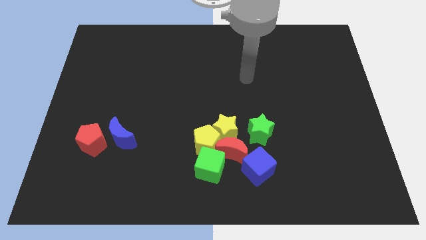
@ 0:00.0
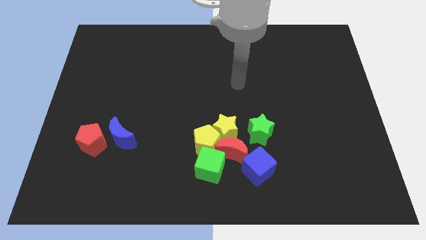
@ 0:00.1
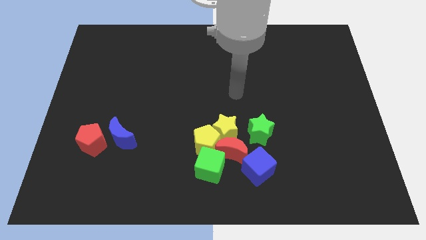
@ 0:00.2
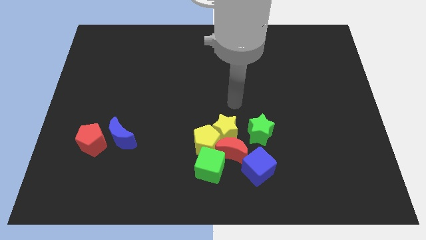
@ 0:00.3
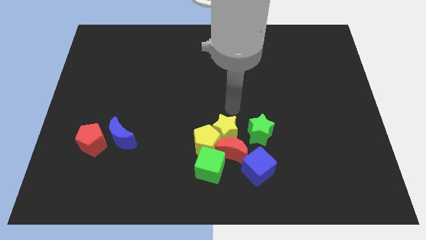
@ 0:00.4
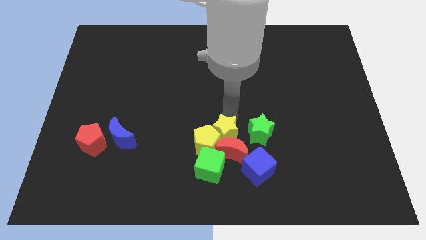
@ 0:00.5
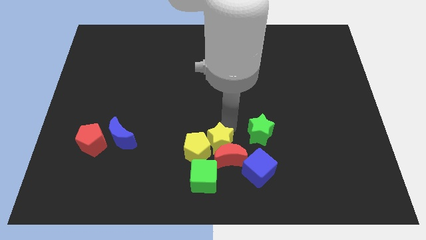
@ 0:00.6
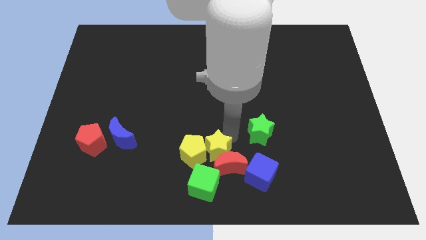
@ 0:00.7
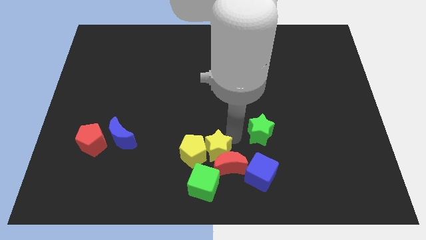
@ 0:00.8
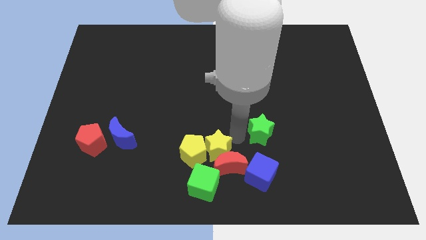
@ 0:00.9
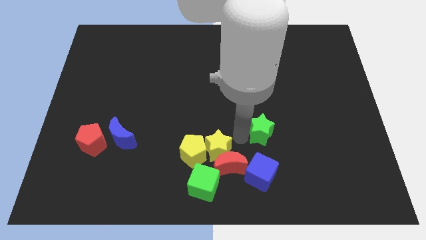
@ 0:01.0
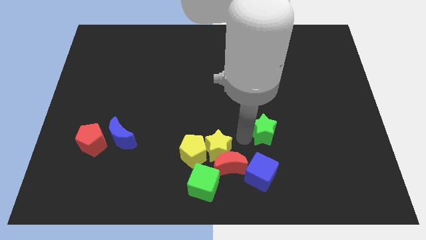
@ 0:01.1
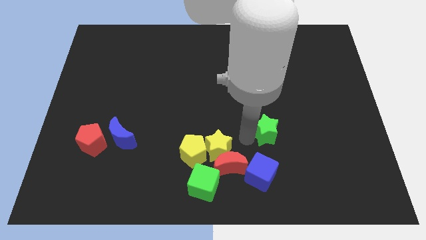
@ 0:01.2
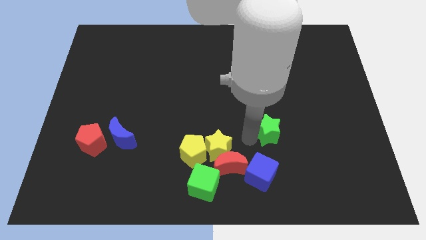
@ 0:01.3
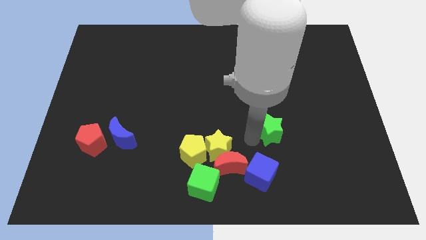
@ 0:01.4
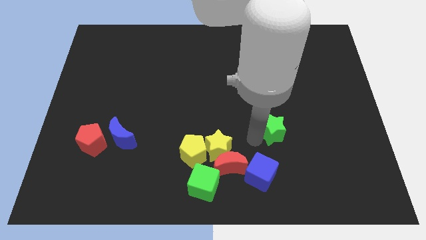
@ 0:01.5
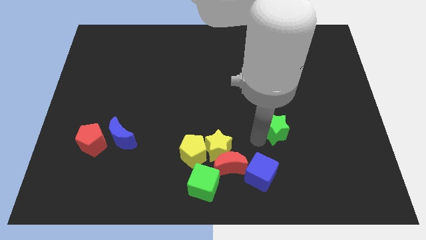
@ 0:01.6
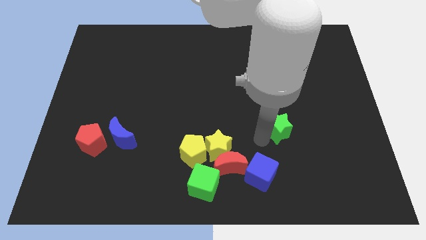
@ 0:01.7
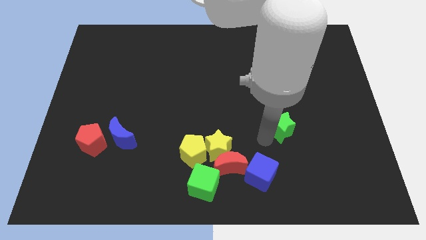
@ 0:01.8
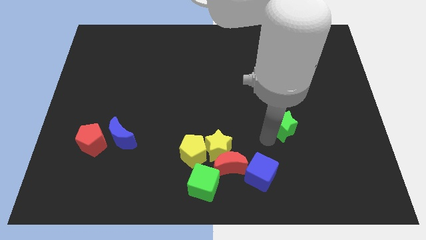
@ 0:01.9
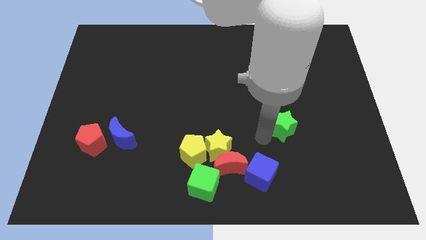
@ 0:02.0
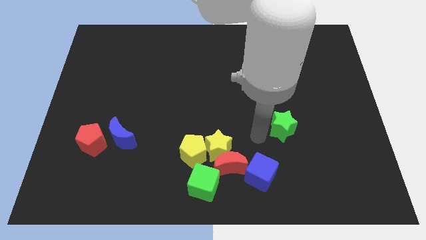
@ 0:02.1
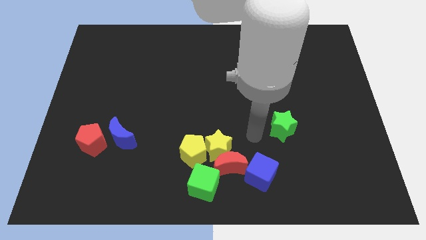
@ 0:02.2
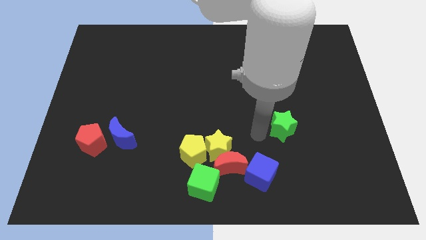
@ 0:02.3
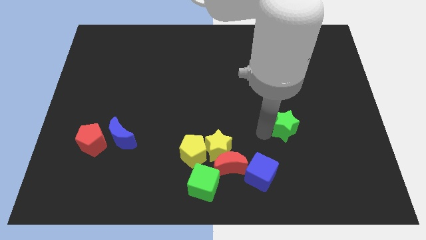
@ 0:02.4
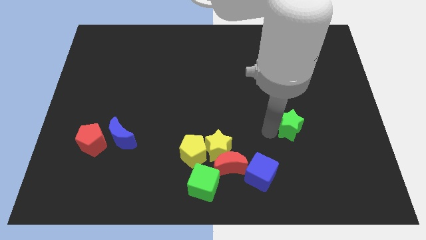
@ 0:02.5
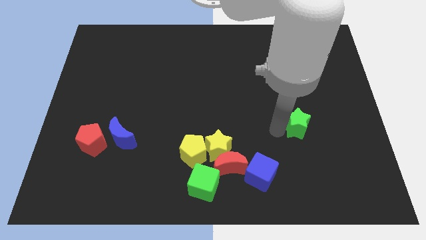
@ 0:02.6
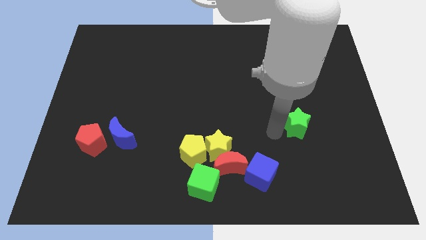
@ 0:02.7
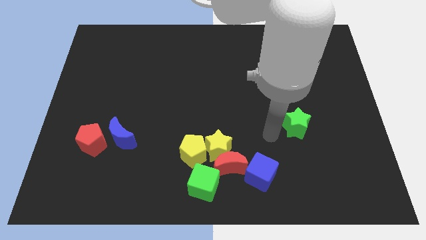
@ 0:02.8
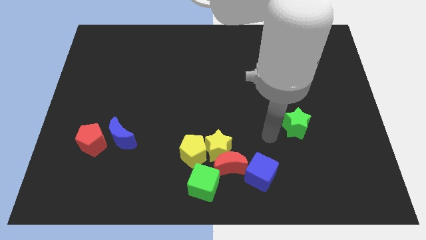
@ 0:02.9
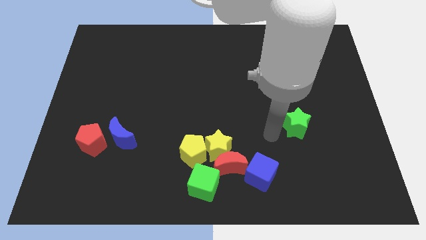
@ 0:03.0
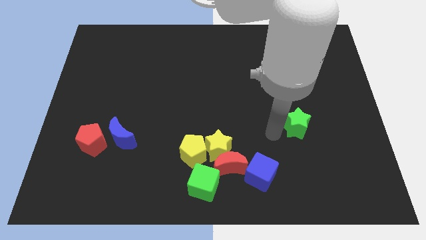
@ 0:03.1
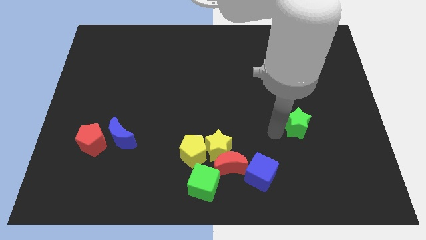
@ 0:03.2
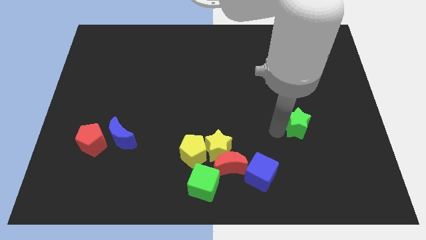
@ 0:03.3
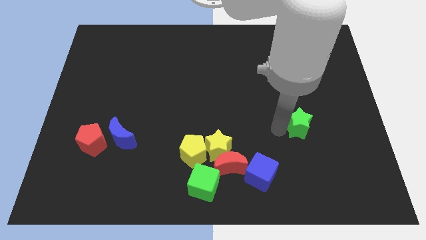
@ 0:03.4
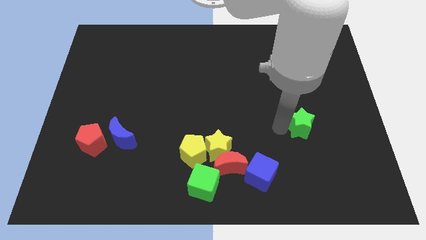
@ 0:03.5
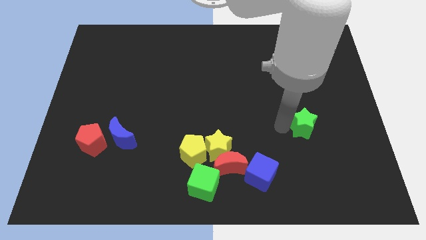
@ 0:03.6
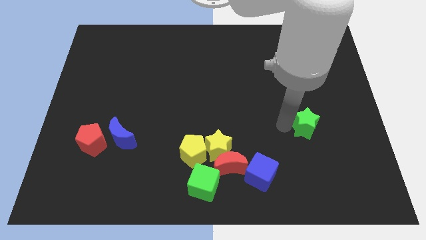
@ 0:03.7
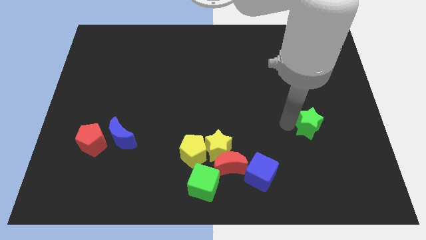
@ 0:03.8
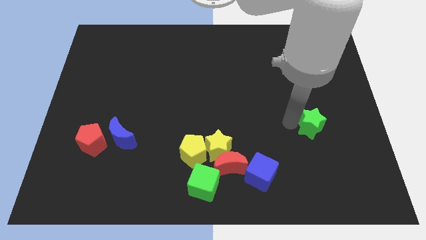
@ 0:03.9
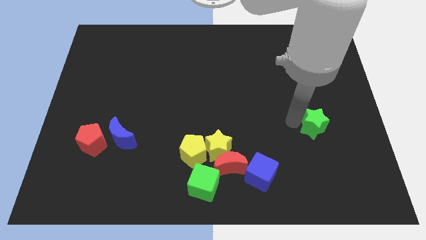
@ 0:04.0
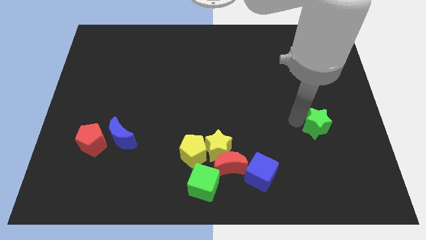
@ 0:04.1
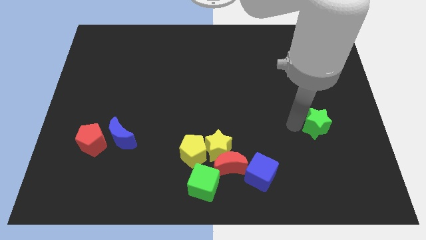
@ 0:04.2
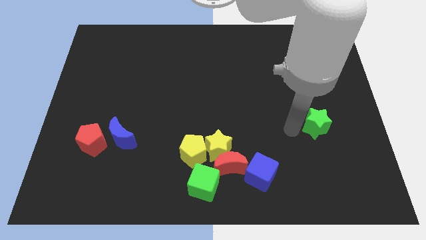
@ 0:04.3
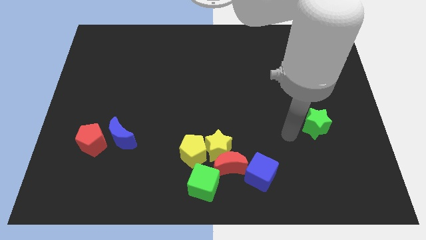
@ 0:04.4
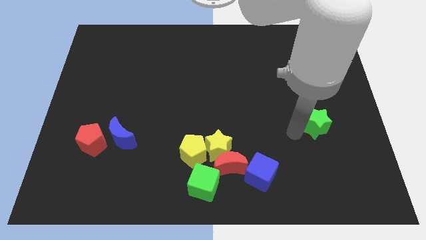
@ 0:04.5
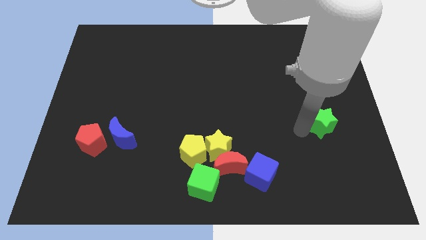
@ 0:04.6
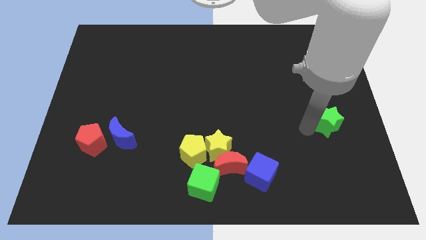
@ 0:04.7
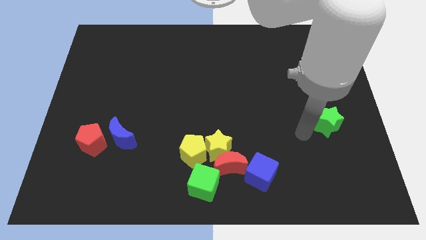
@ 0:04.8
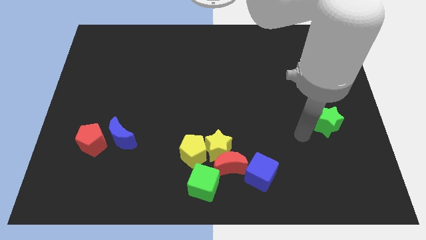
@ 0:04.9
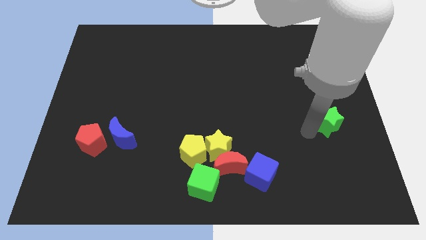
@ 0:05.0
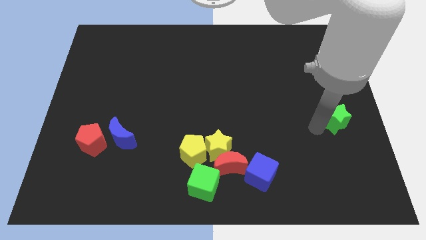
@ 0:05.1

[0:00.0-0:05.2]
put the green star to the right side

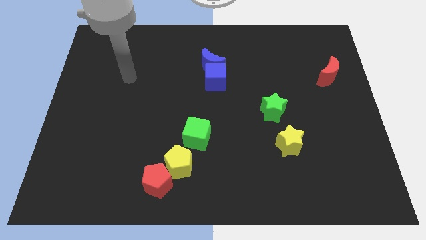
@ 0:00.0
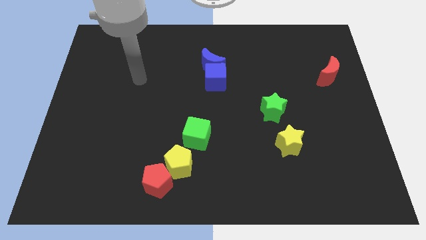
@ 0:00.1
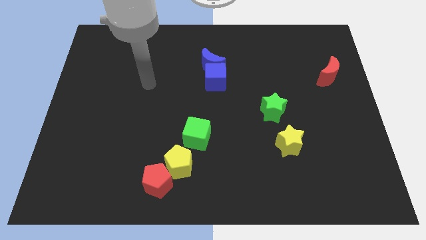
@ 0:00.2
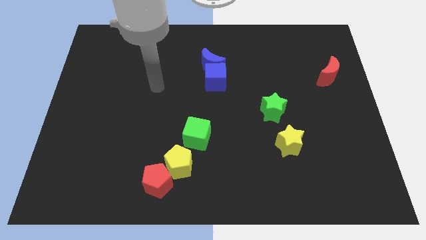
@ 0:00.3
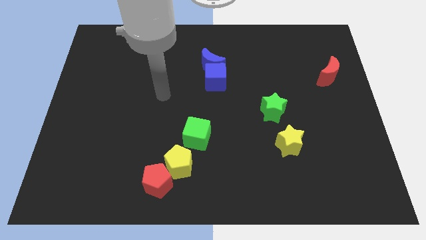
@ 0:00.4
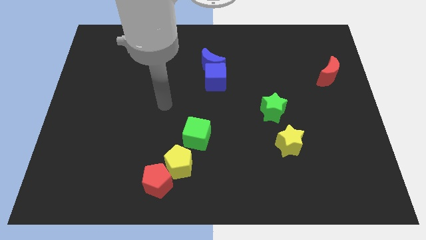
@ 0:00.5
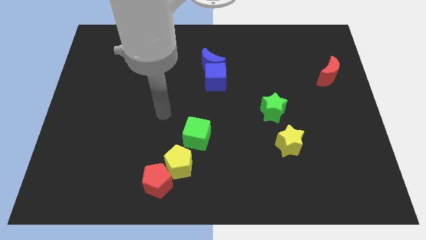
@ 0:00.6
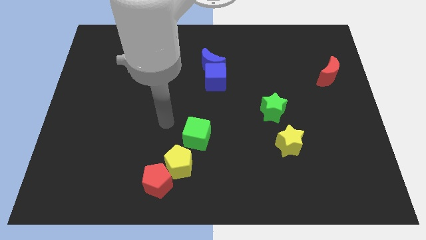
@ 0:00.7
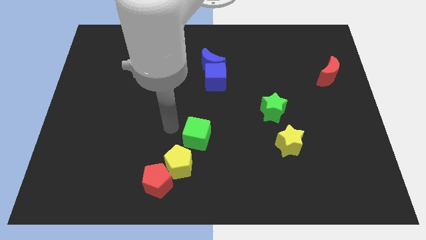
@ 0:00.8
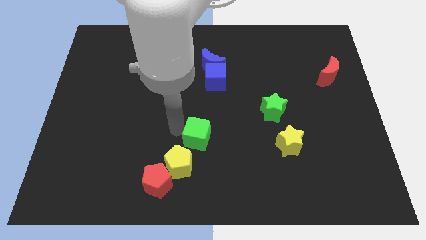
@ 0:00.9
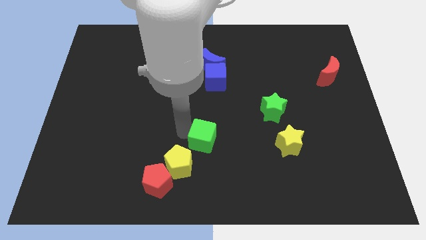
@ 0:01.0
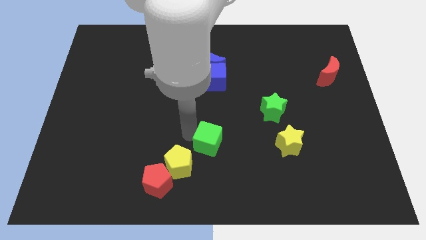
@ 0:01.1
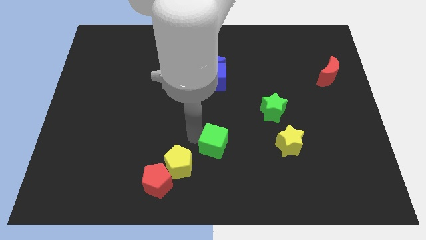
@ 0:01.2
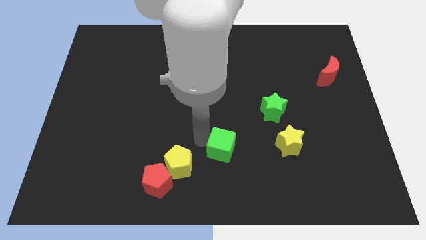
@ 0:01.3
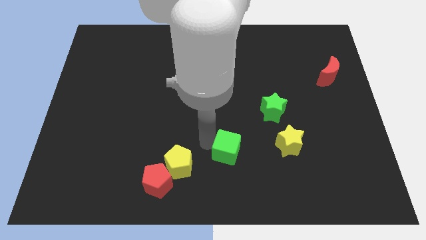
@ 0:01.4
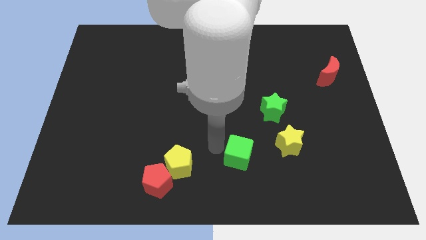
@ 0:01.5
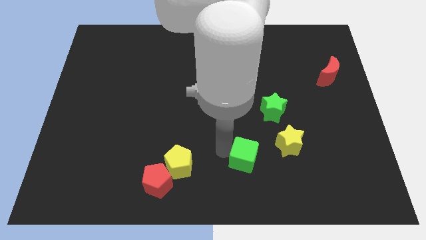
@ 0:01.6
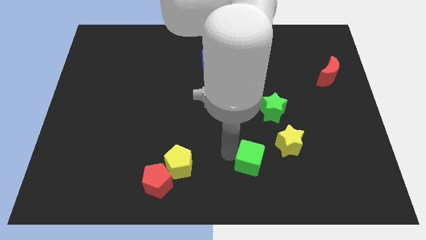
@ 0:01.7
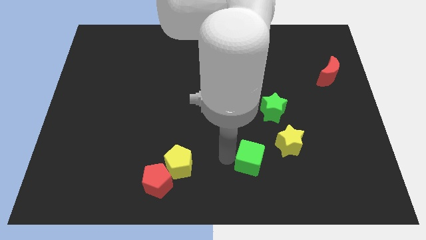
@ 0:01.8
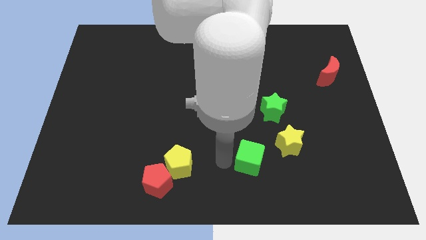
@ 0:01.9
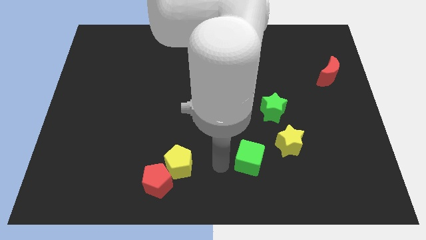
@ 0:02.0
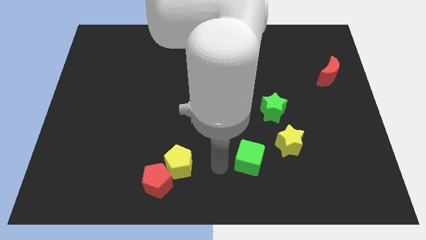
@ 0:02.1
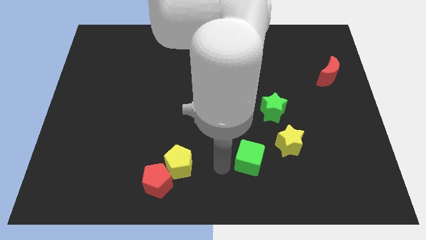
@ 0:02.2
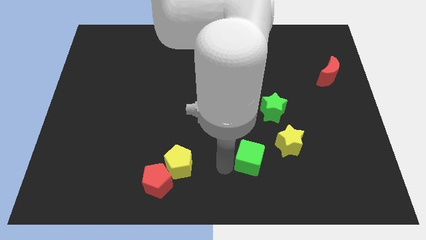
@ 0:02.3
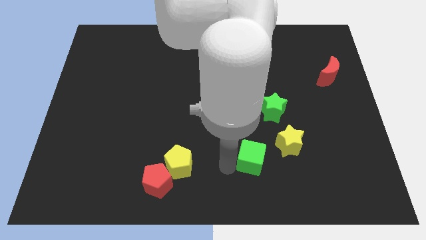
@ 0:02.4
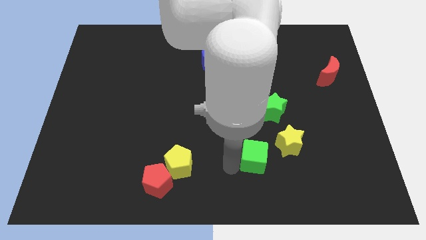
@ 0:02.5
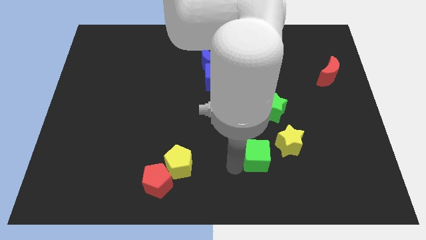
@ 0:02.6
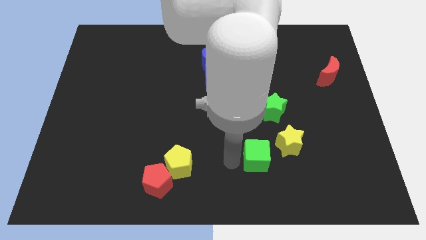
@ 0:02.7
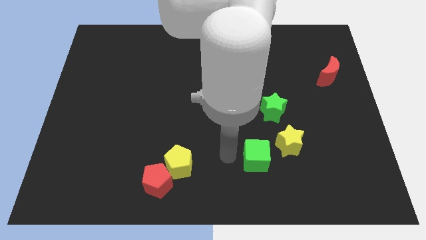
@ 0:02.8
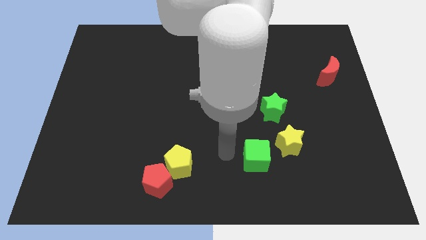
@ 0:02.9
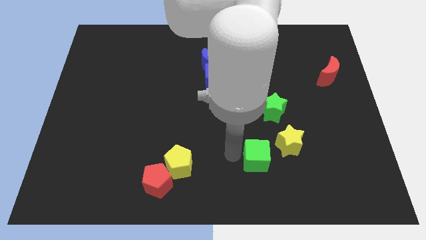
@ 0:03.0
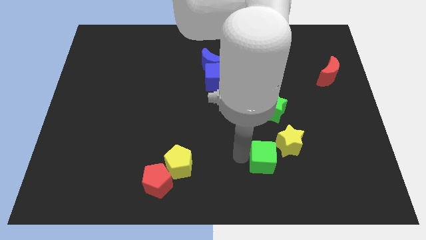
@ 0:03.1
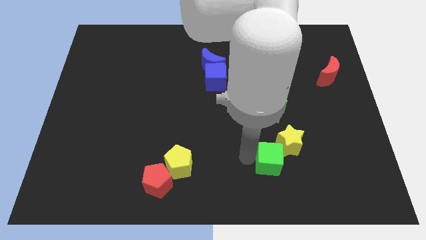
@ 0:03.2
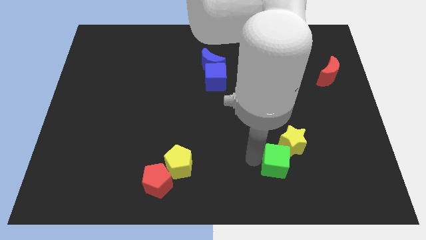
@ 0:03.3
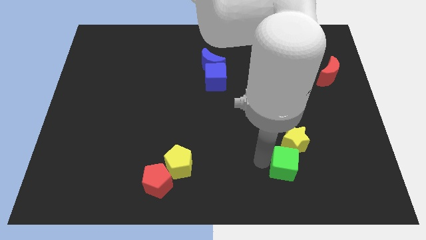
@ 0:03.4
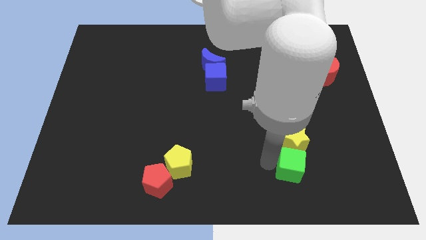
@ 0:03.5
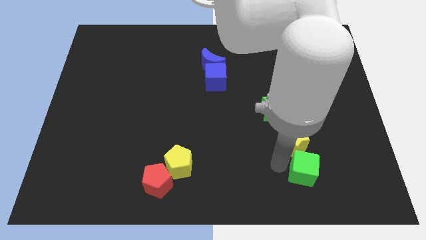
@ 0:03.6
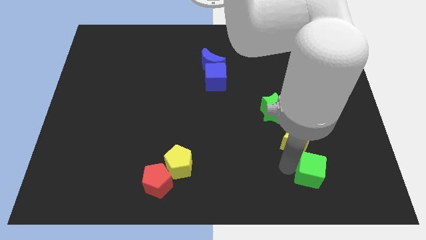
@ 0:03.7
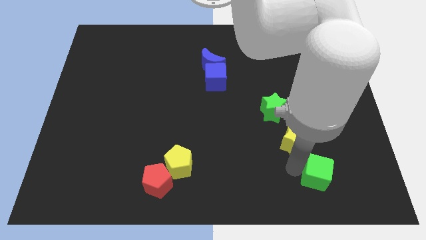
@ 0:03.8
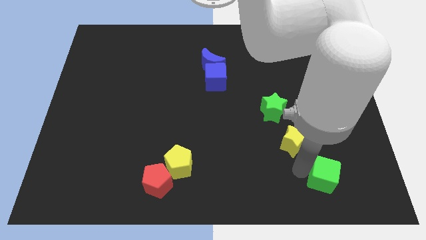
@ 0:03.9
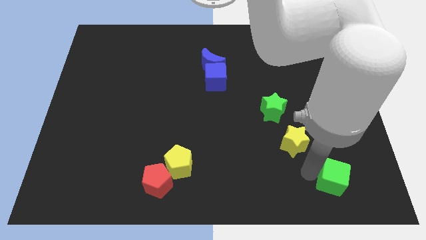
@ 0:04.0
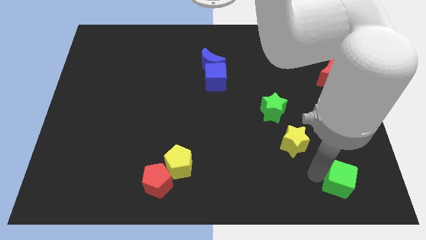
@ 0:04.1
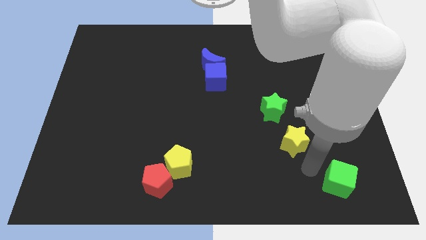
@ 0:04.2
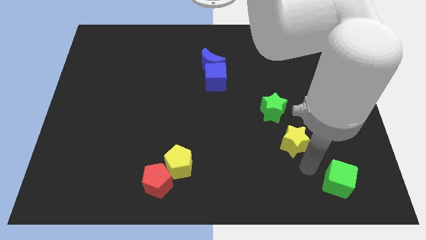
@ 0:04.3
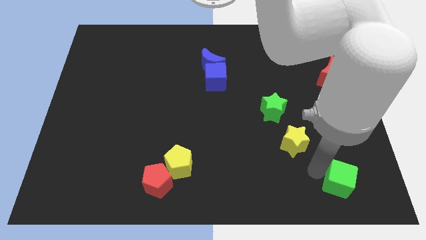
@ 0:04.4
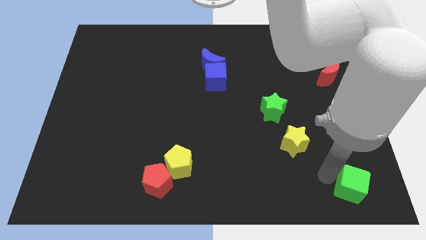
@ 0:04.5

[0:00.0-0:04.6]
put the green cube to the bottom right
